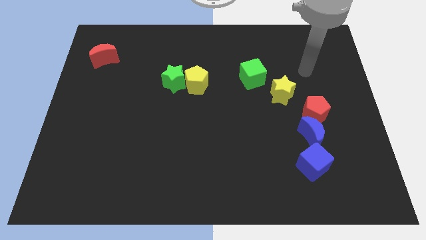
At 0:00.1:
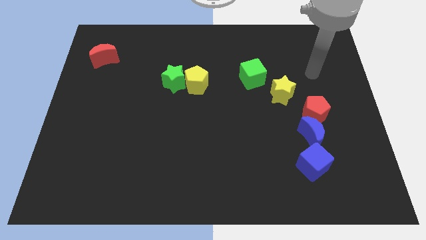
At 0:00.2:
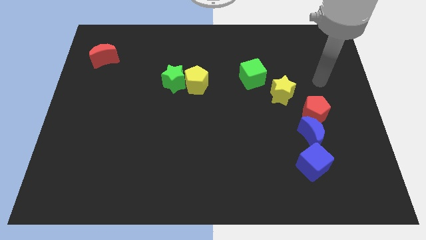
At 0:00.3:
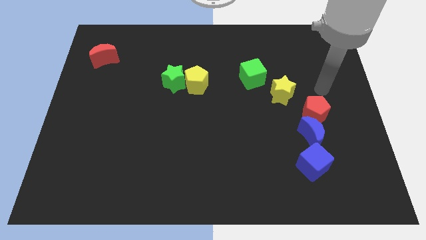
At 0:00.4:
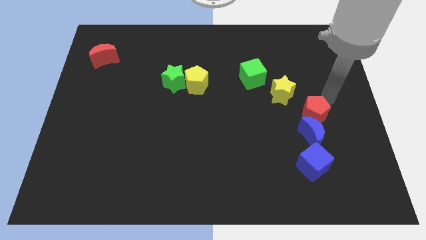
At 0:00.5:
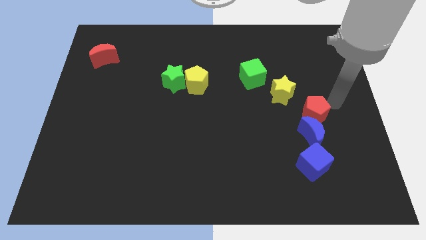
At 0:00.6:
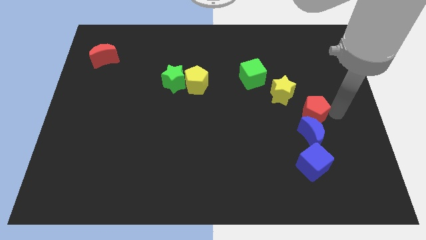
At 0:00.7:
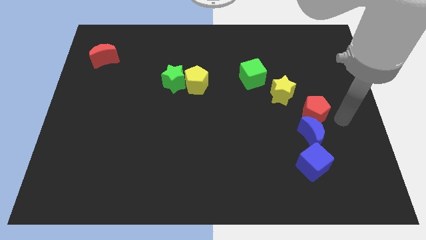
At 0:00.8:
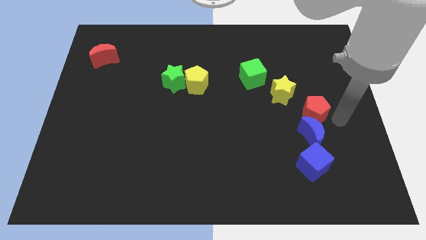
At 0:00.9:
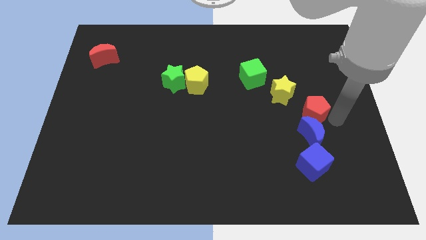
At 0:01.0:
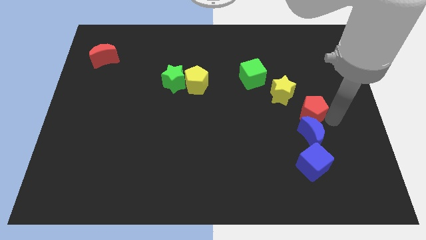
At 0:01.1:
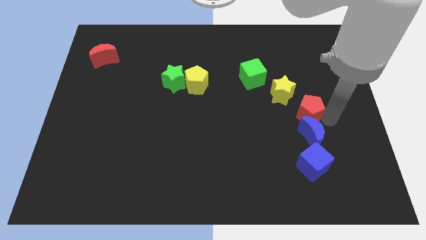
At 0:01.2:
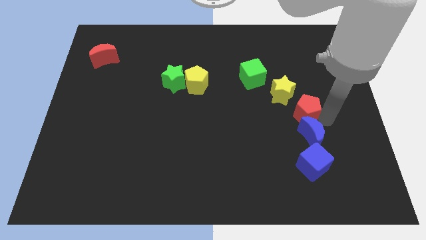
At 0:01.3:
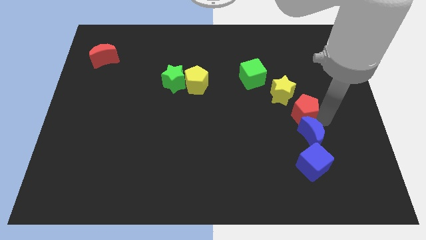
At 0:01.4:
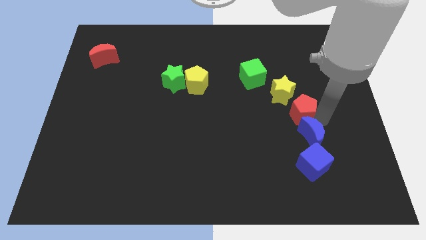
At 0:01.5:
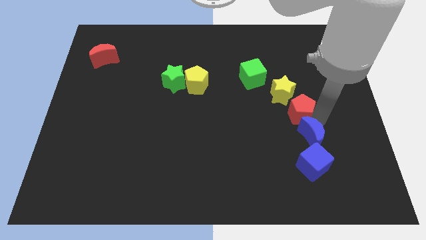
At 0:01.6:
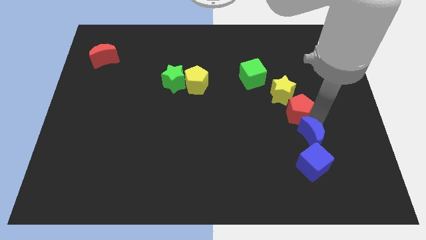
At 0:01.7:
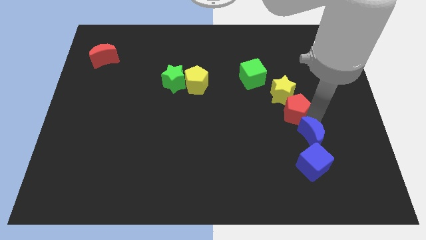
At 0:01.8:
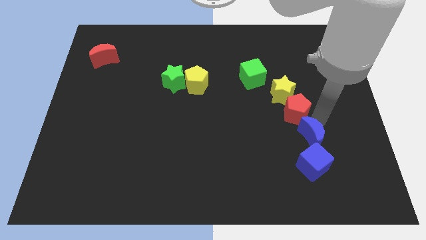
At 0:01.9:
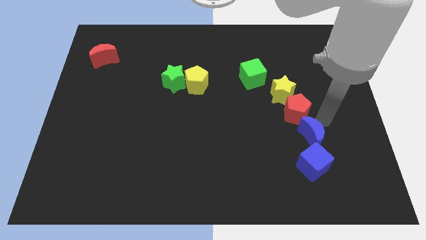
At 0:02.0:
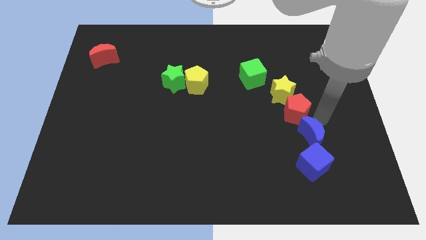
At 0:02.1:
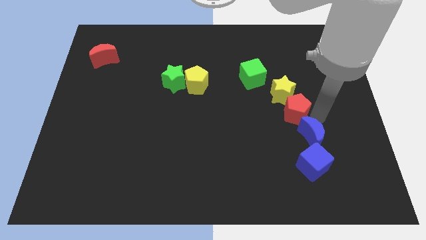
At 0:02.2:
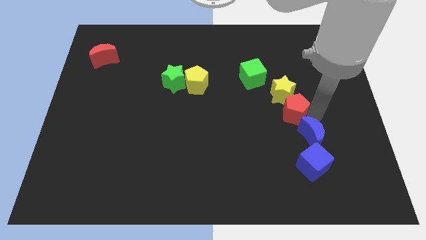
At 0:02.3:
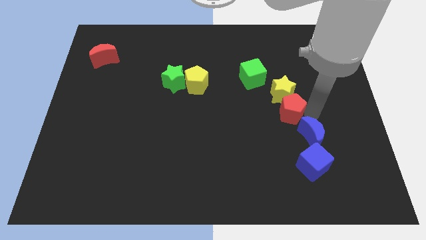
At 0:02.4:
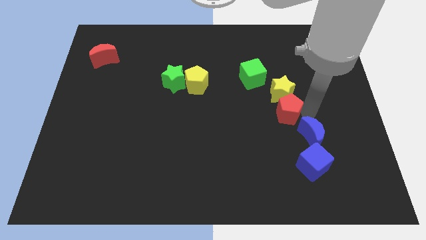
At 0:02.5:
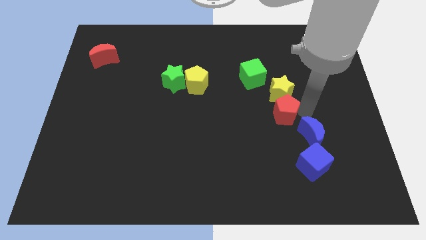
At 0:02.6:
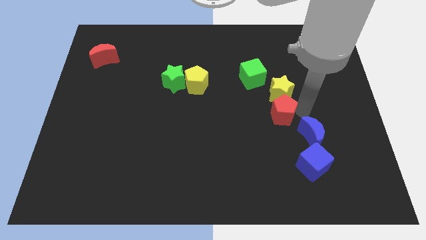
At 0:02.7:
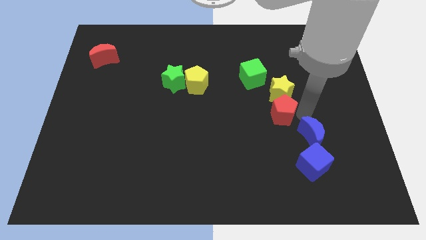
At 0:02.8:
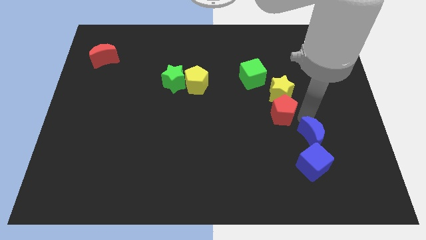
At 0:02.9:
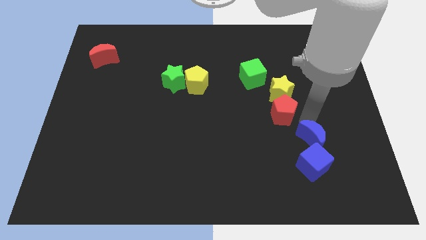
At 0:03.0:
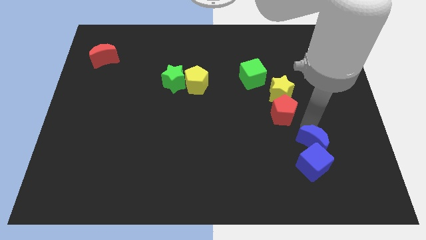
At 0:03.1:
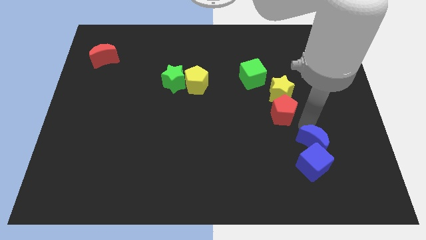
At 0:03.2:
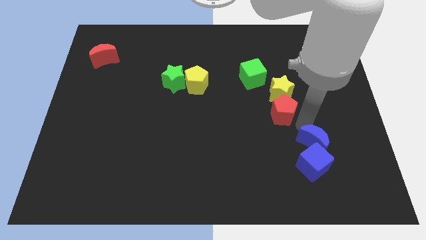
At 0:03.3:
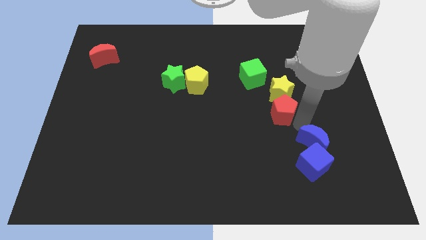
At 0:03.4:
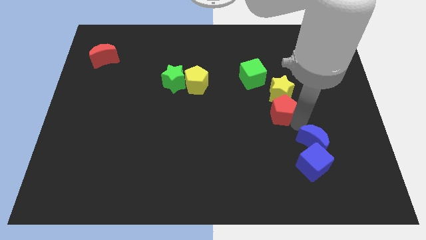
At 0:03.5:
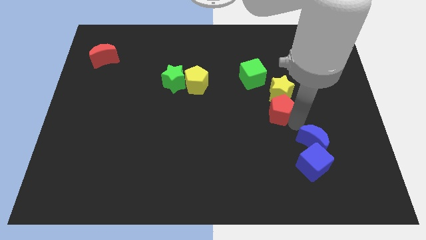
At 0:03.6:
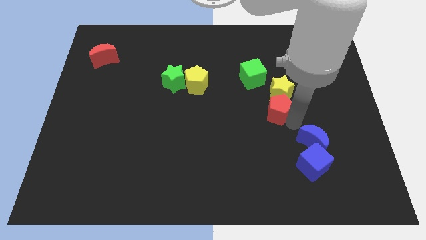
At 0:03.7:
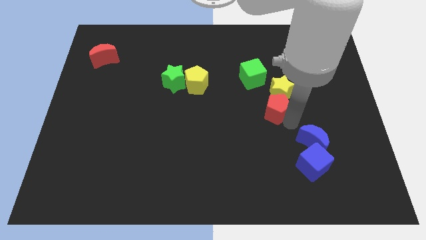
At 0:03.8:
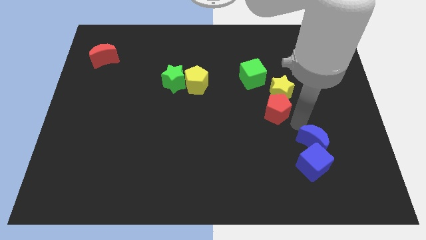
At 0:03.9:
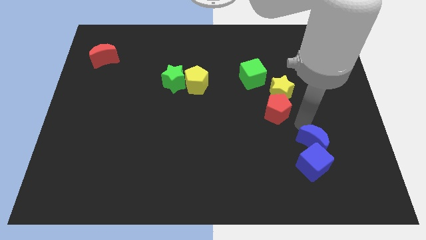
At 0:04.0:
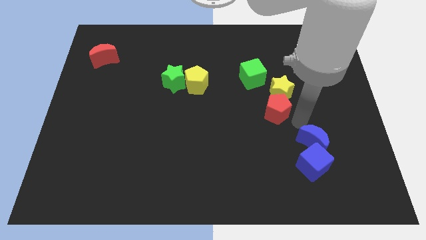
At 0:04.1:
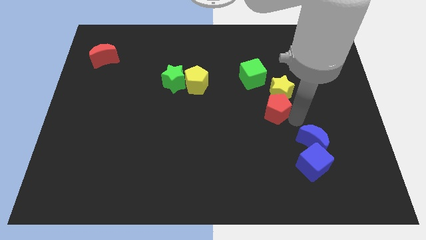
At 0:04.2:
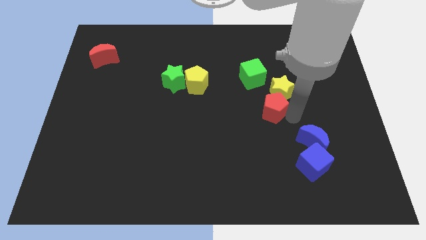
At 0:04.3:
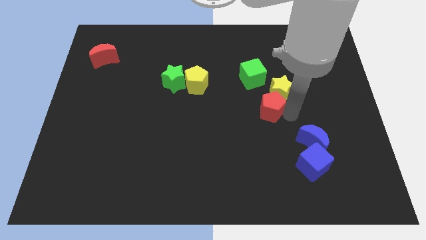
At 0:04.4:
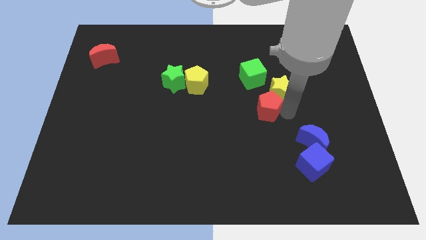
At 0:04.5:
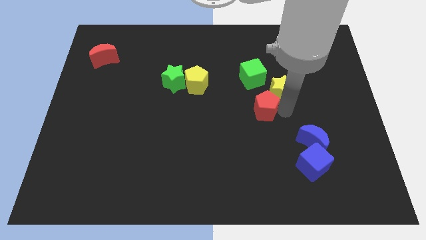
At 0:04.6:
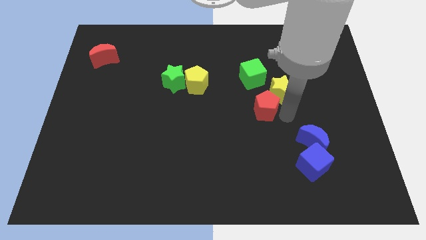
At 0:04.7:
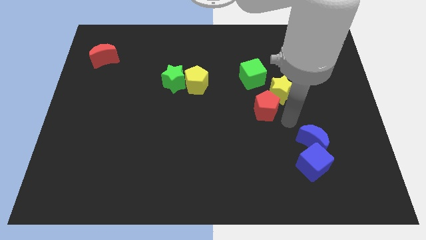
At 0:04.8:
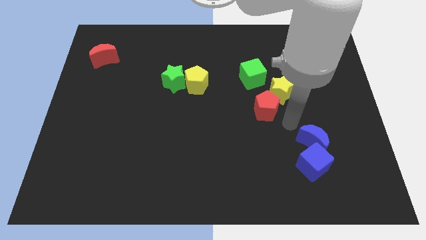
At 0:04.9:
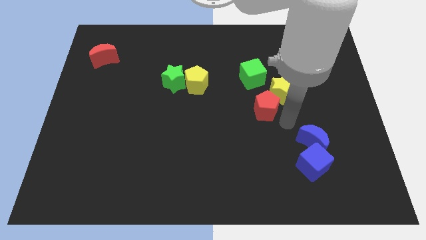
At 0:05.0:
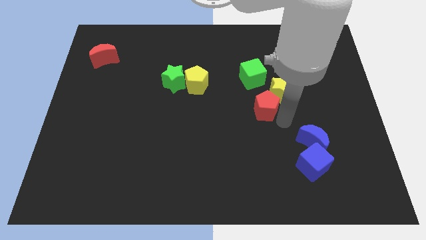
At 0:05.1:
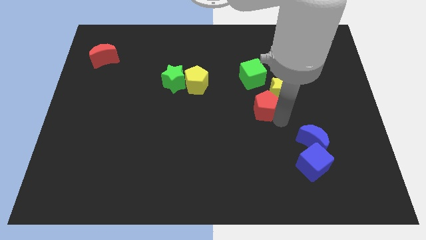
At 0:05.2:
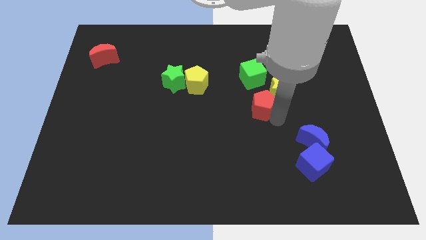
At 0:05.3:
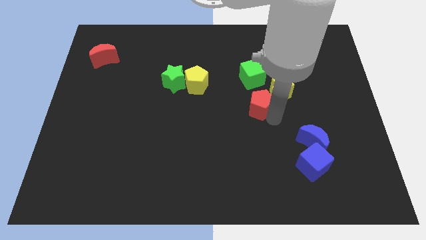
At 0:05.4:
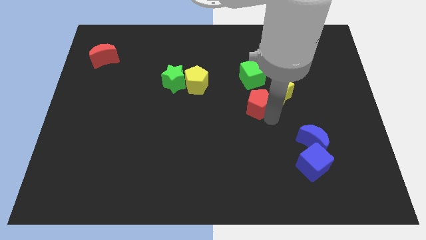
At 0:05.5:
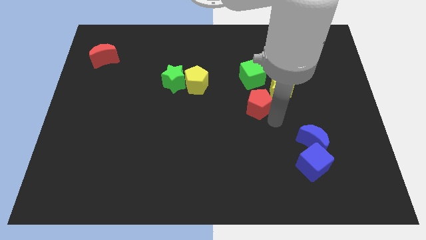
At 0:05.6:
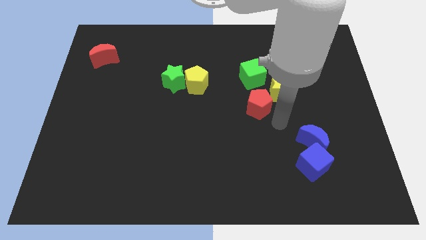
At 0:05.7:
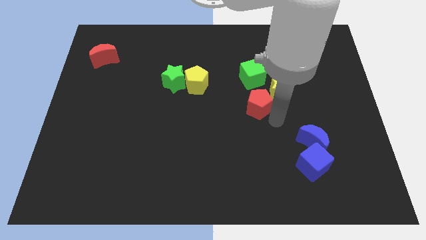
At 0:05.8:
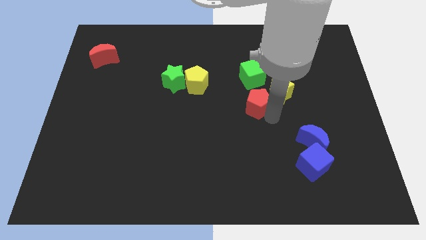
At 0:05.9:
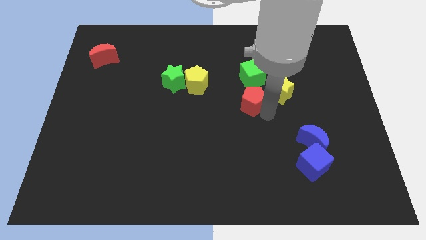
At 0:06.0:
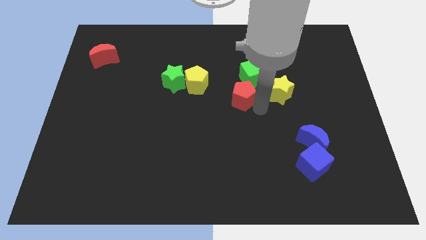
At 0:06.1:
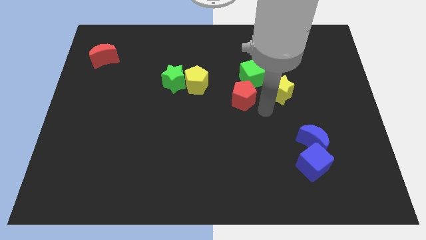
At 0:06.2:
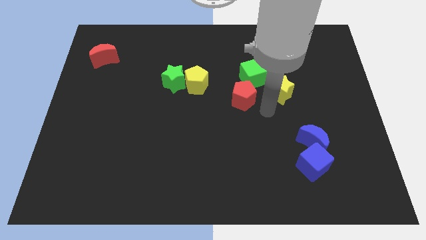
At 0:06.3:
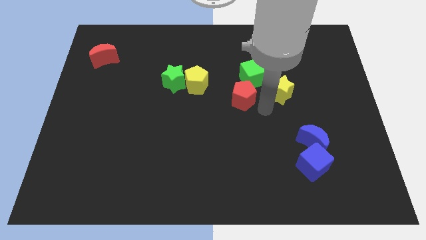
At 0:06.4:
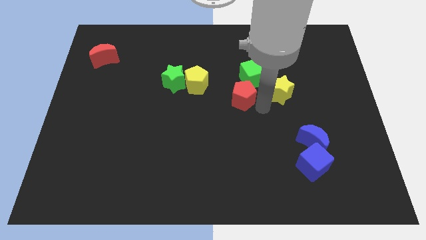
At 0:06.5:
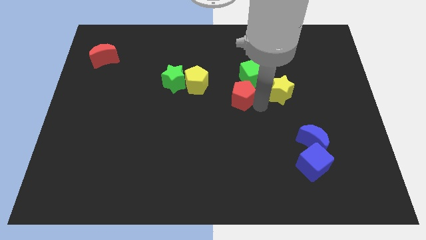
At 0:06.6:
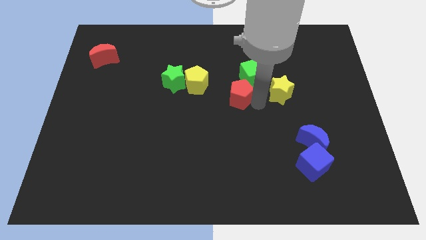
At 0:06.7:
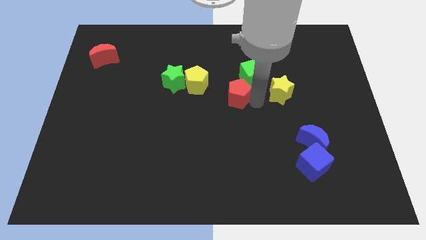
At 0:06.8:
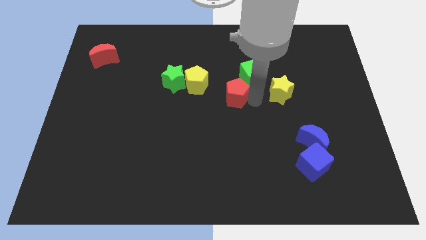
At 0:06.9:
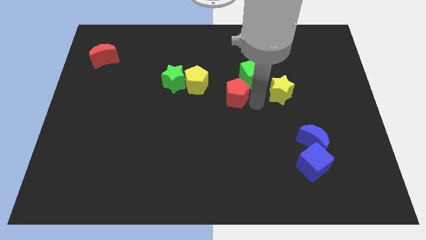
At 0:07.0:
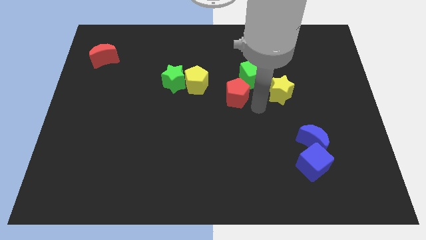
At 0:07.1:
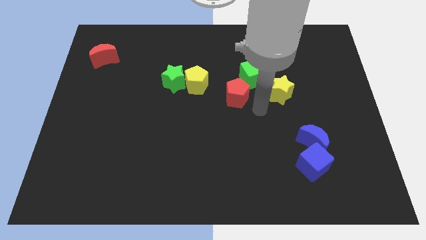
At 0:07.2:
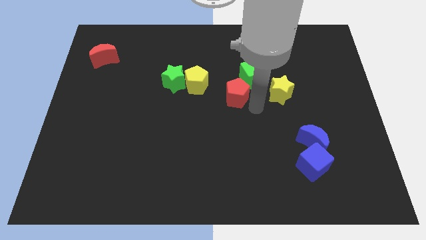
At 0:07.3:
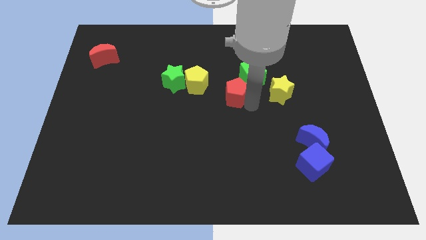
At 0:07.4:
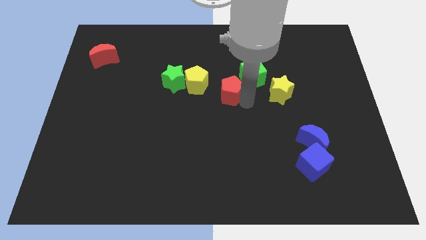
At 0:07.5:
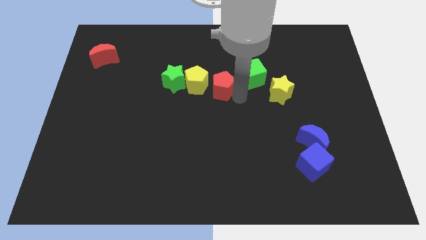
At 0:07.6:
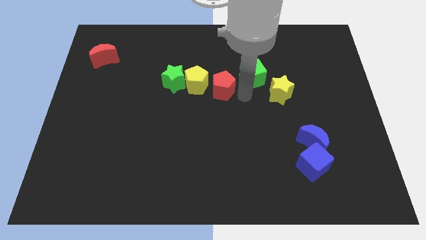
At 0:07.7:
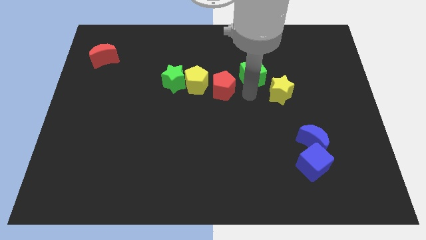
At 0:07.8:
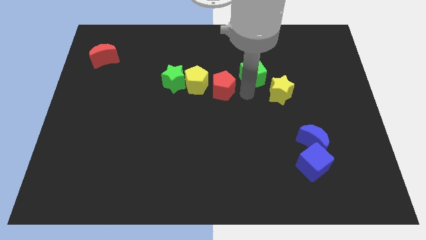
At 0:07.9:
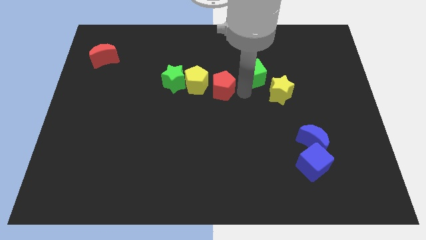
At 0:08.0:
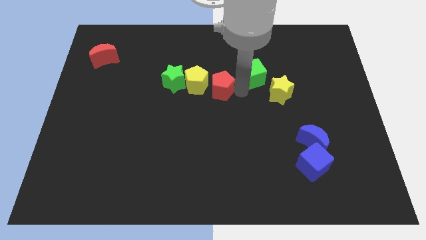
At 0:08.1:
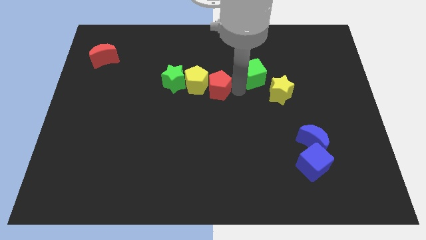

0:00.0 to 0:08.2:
move the red pentagon close to the yellow pentagon
